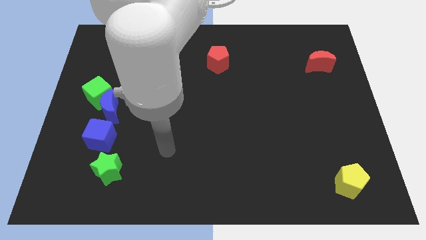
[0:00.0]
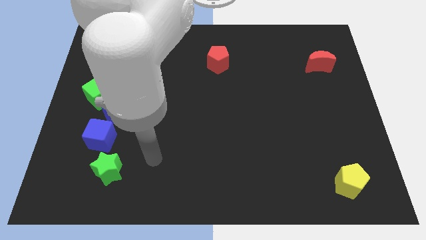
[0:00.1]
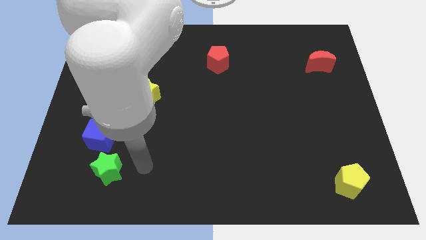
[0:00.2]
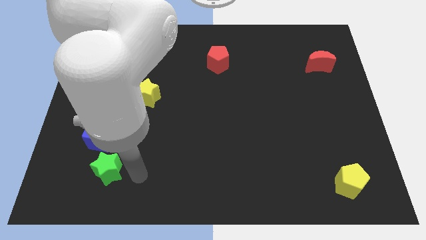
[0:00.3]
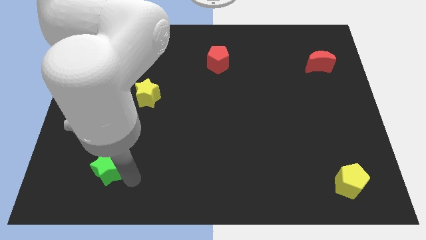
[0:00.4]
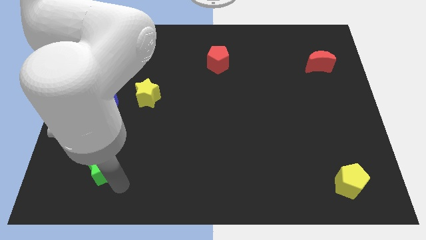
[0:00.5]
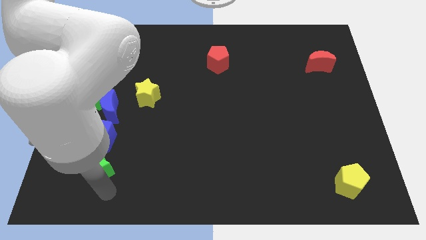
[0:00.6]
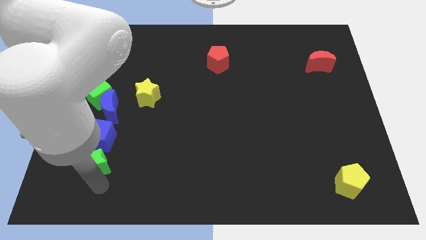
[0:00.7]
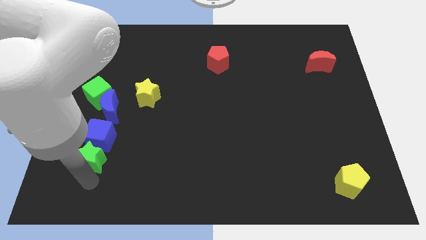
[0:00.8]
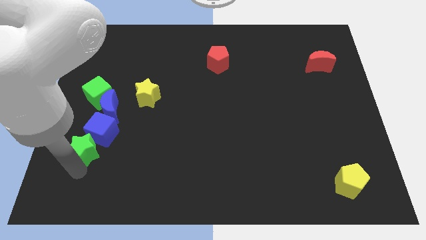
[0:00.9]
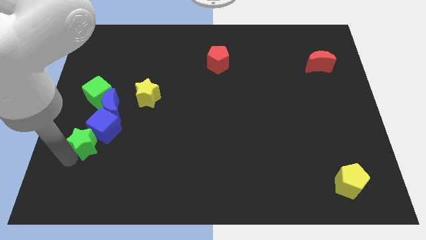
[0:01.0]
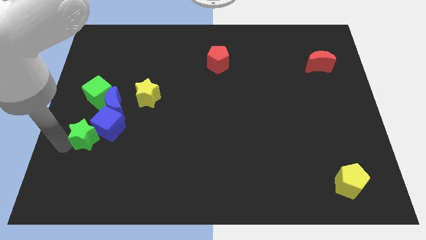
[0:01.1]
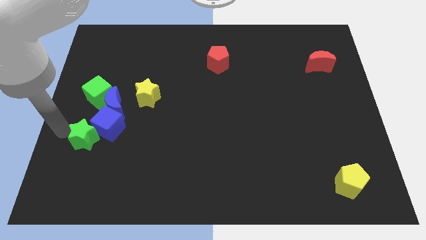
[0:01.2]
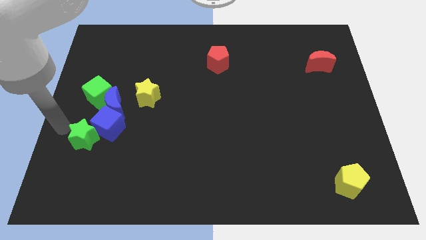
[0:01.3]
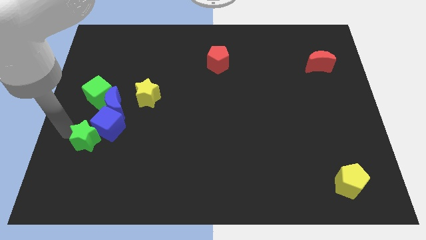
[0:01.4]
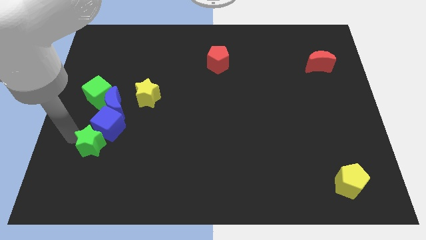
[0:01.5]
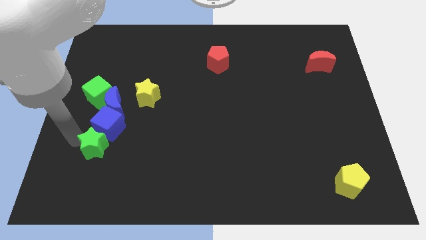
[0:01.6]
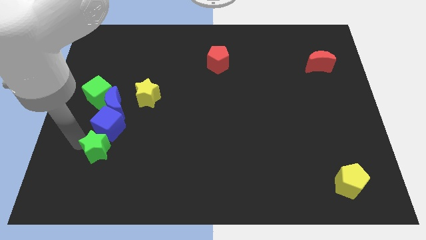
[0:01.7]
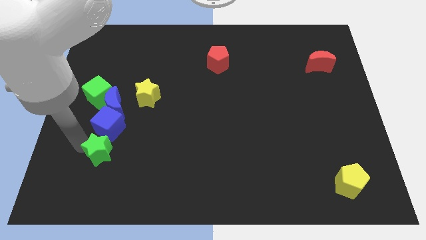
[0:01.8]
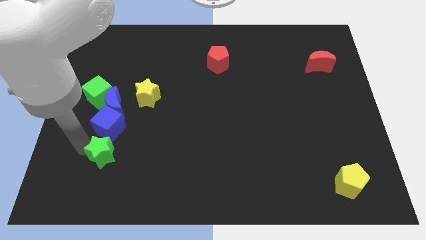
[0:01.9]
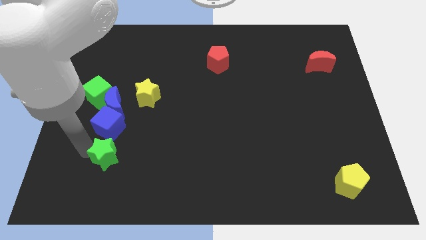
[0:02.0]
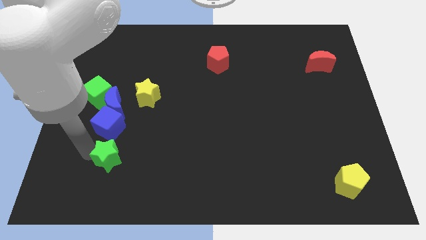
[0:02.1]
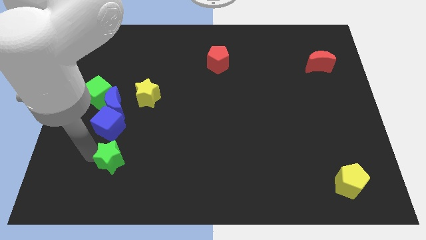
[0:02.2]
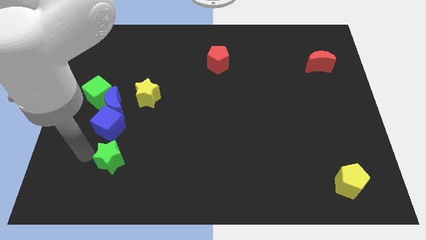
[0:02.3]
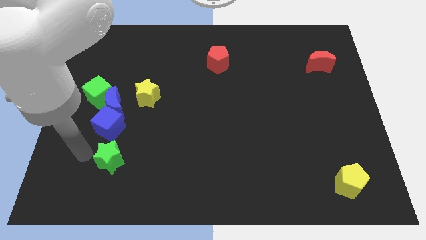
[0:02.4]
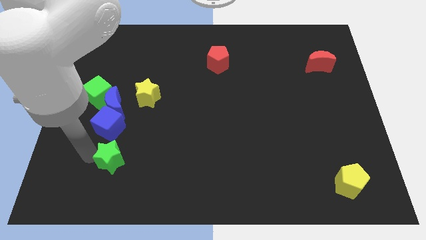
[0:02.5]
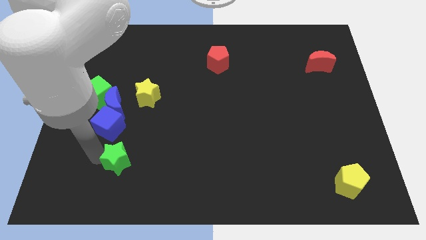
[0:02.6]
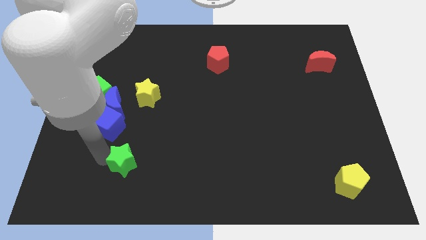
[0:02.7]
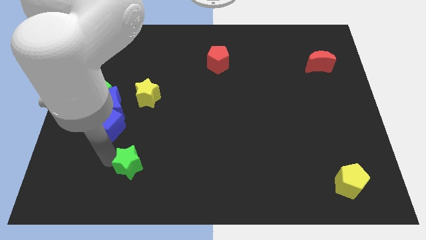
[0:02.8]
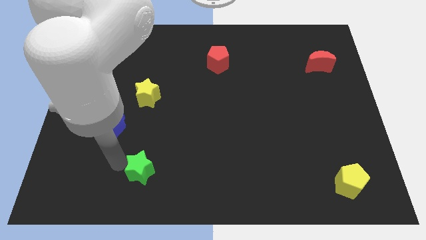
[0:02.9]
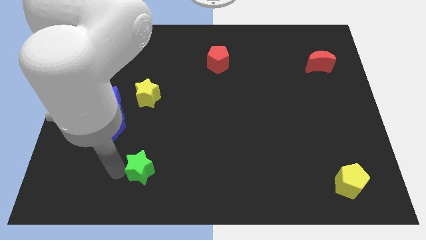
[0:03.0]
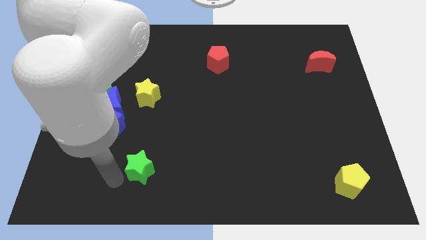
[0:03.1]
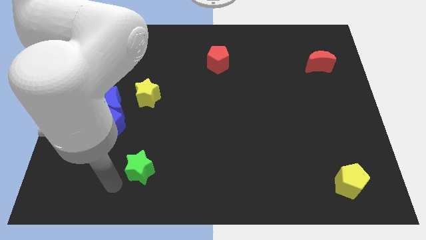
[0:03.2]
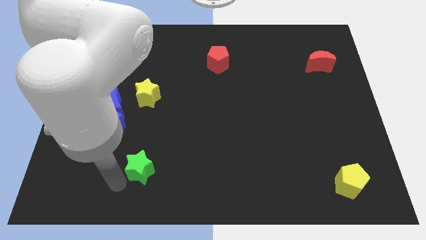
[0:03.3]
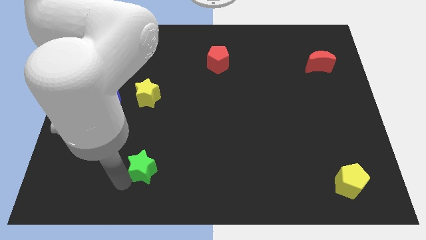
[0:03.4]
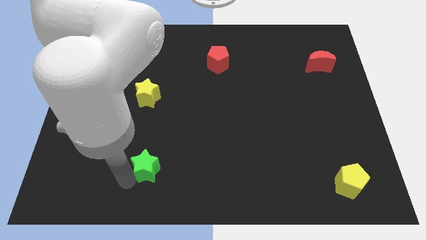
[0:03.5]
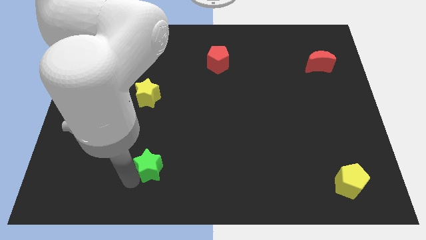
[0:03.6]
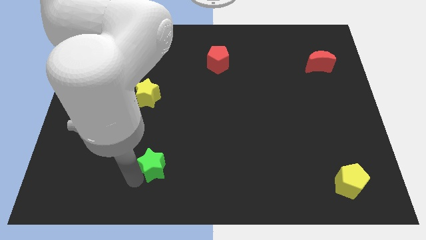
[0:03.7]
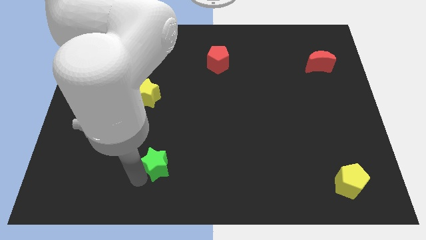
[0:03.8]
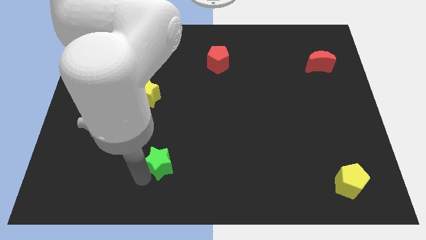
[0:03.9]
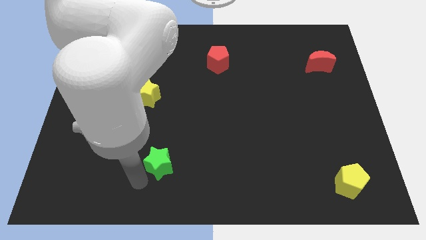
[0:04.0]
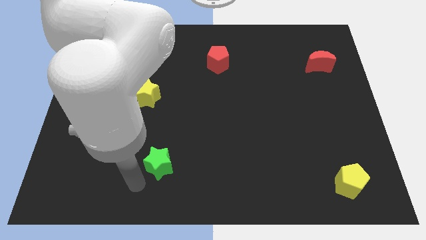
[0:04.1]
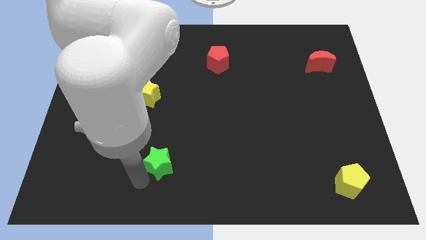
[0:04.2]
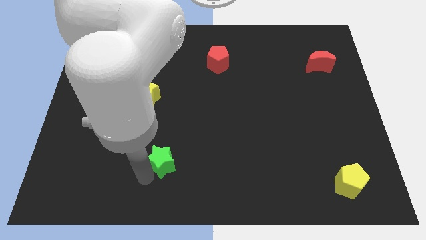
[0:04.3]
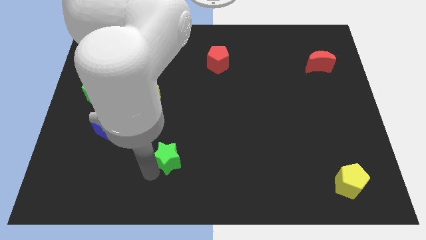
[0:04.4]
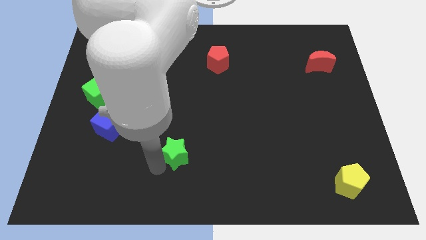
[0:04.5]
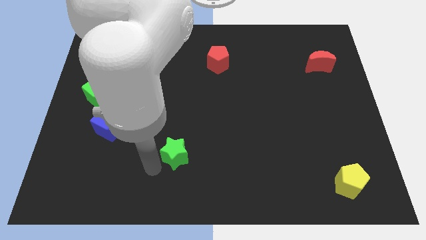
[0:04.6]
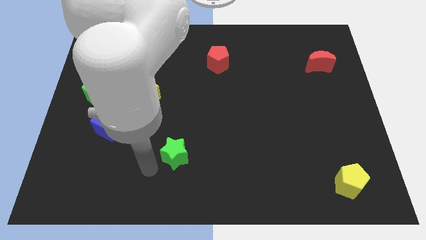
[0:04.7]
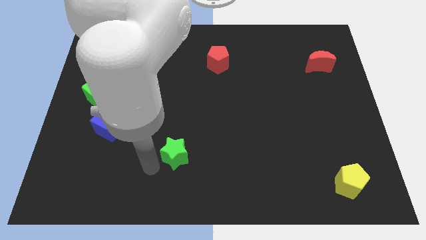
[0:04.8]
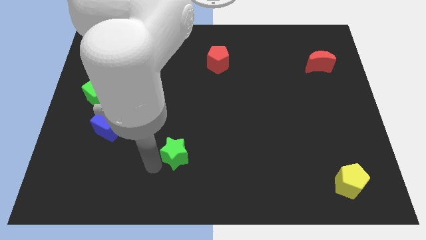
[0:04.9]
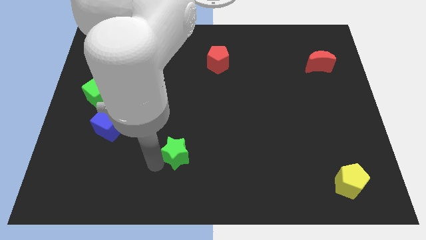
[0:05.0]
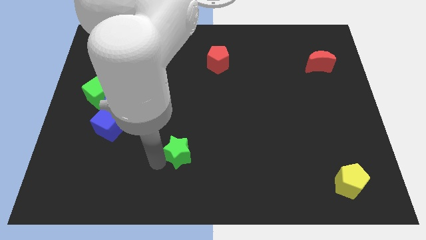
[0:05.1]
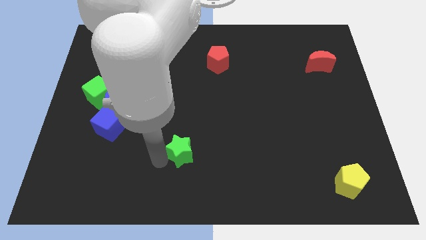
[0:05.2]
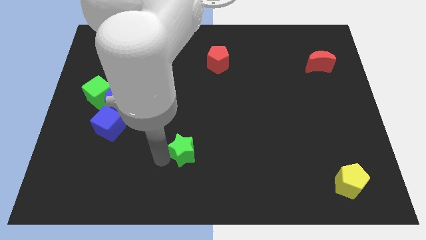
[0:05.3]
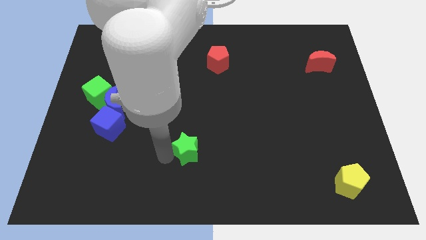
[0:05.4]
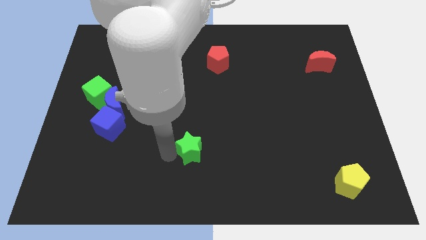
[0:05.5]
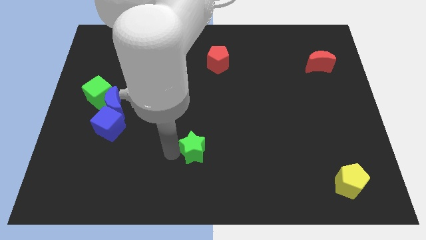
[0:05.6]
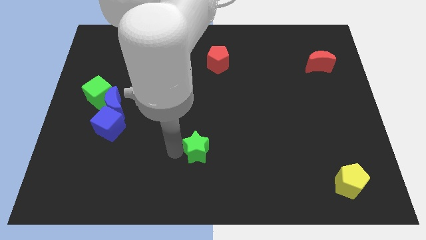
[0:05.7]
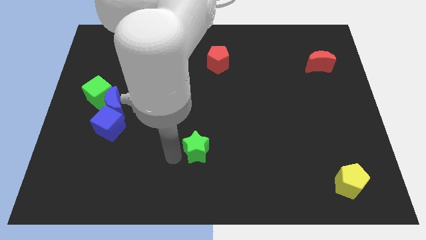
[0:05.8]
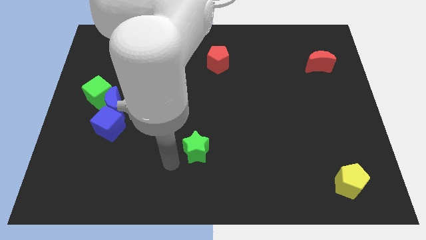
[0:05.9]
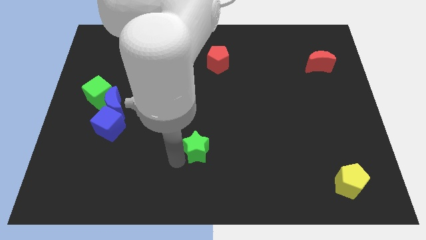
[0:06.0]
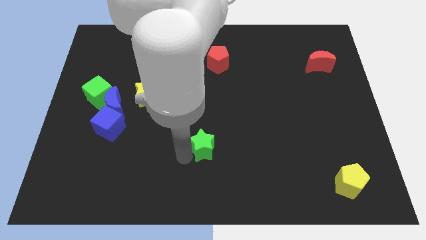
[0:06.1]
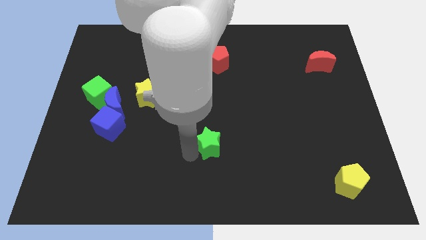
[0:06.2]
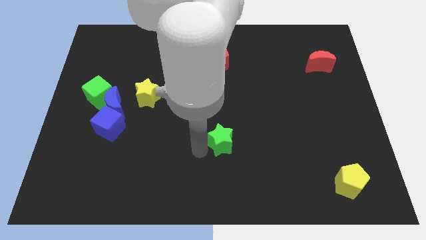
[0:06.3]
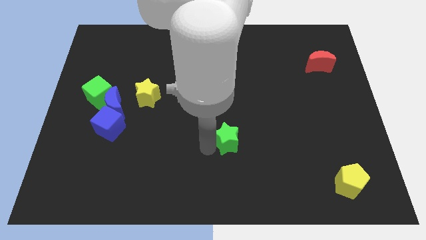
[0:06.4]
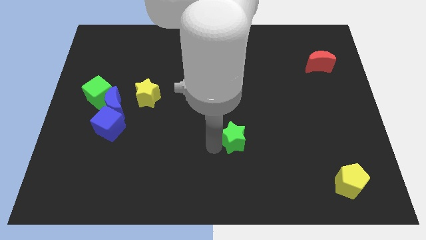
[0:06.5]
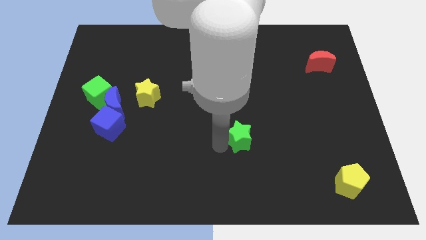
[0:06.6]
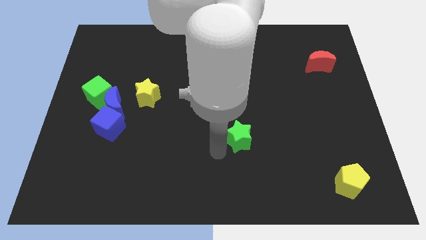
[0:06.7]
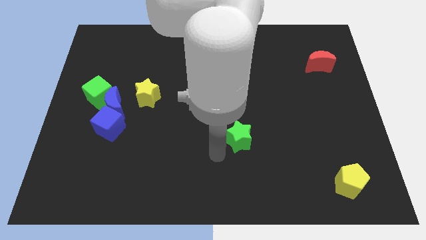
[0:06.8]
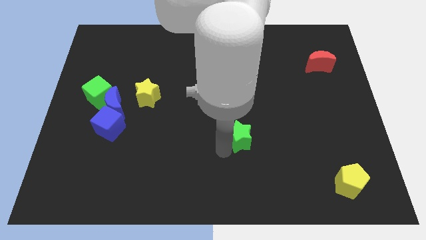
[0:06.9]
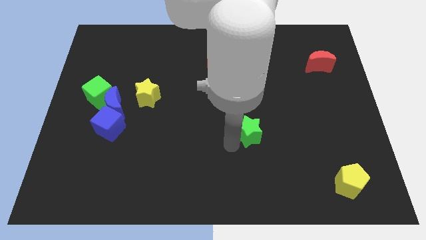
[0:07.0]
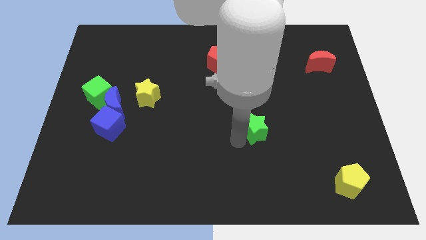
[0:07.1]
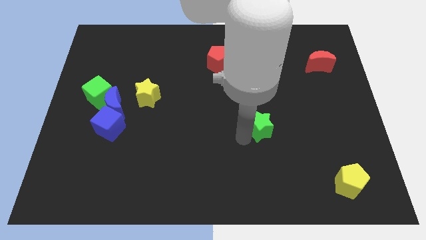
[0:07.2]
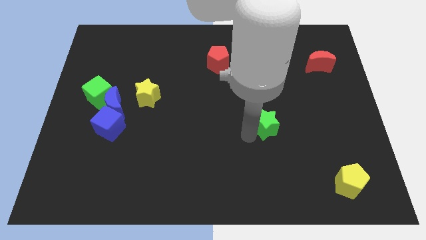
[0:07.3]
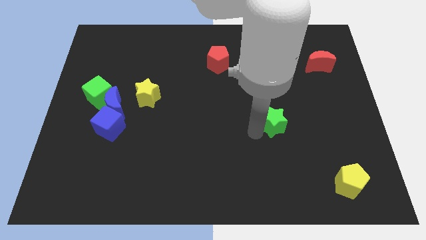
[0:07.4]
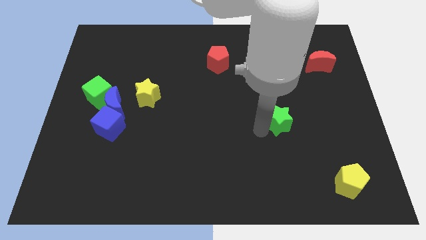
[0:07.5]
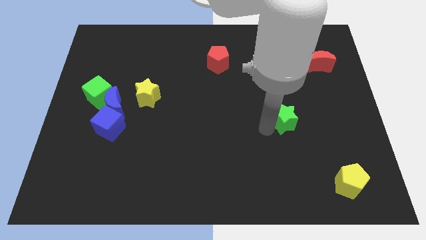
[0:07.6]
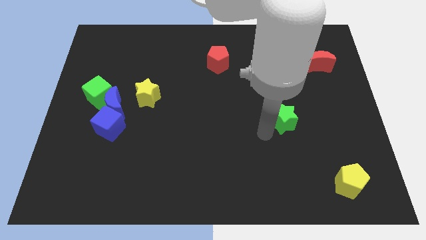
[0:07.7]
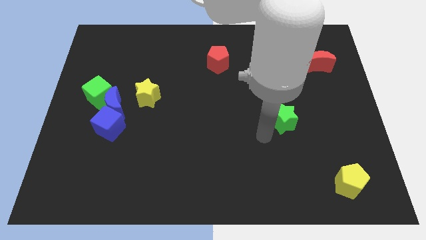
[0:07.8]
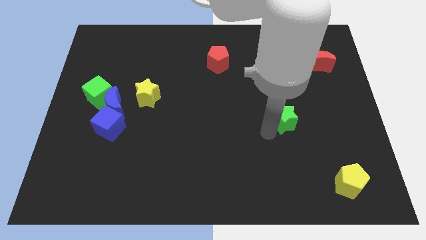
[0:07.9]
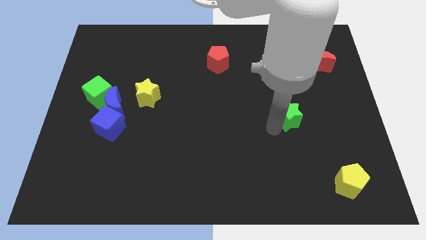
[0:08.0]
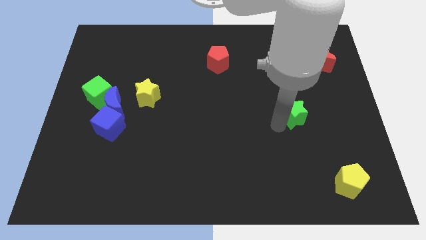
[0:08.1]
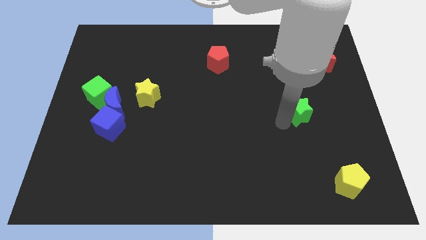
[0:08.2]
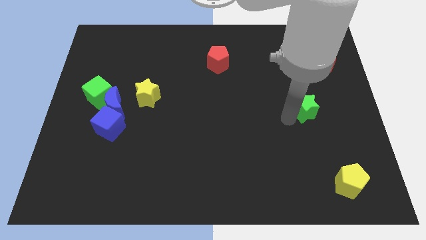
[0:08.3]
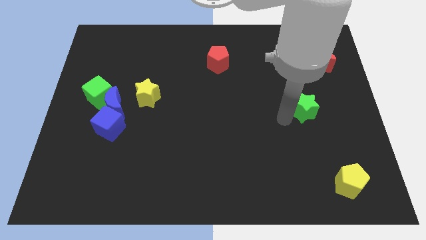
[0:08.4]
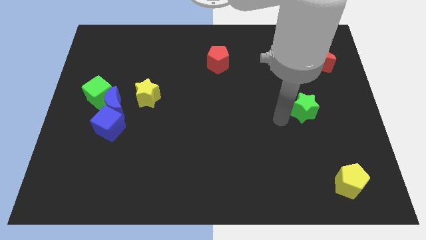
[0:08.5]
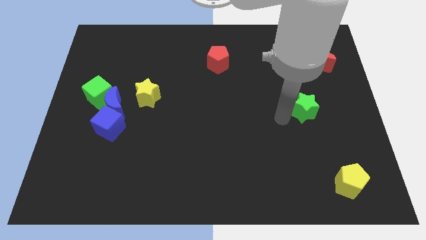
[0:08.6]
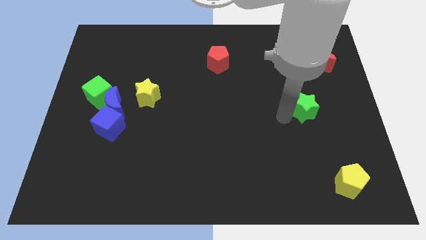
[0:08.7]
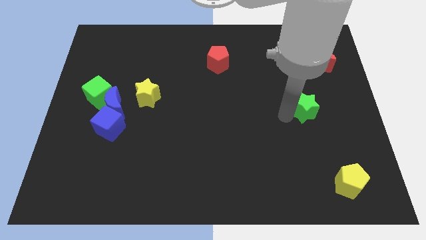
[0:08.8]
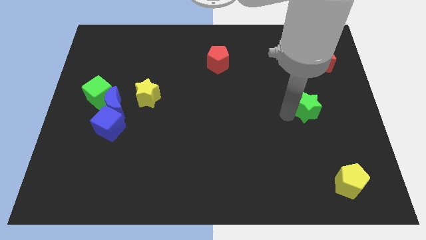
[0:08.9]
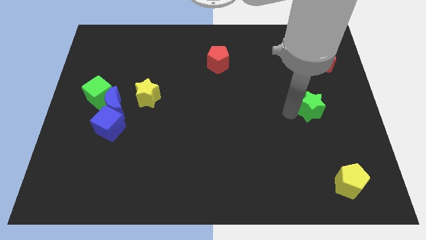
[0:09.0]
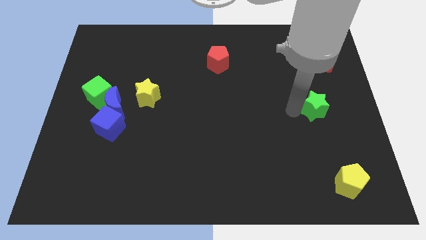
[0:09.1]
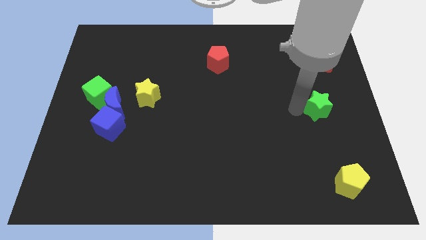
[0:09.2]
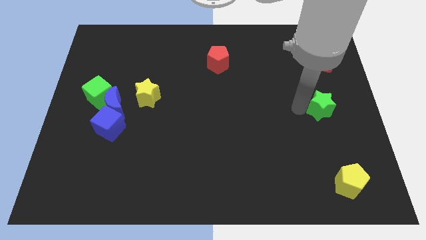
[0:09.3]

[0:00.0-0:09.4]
push the green star to the right side
